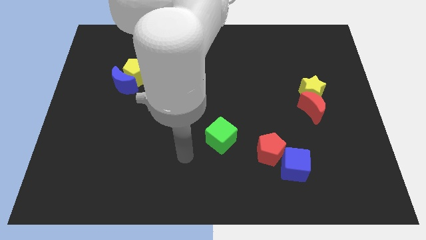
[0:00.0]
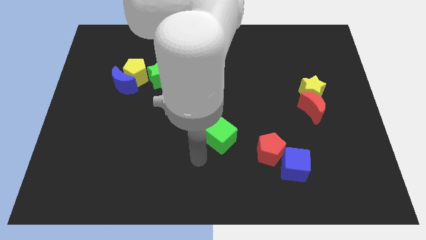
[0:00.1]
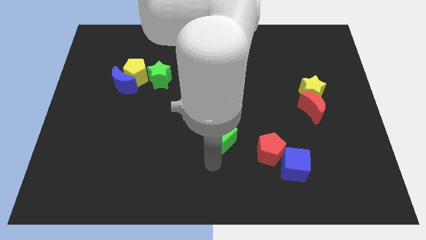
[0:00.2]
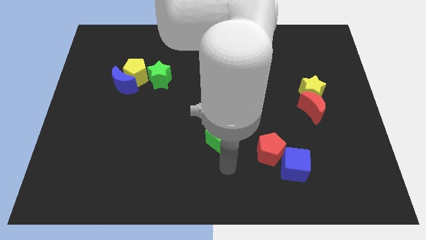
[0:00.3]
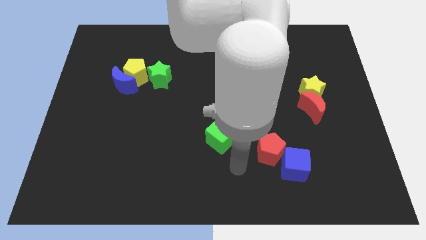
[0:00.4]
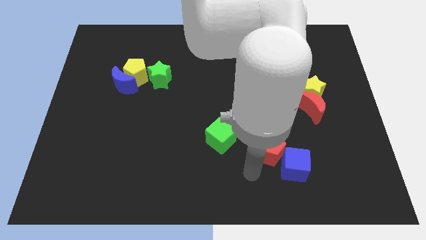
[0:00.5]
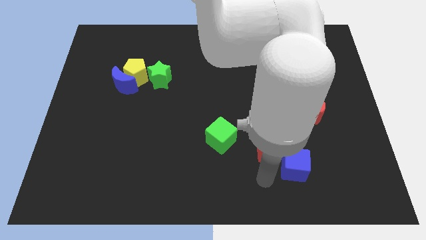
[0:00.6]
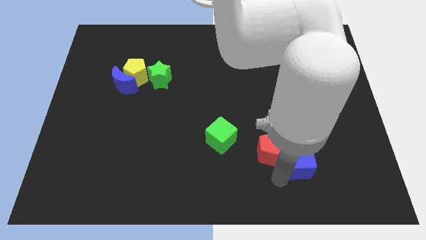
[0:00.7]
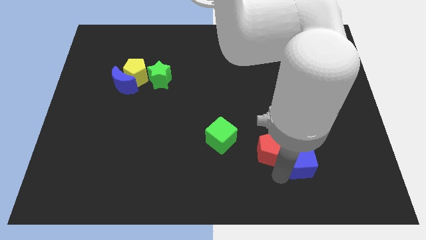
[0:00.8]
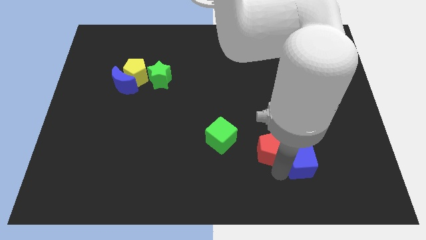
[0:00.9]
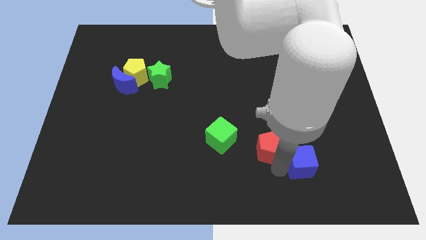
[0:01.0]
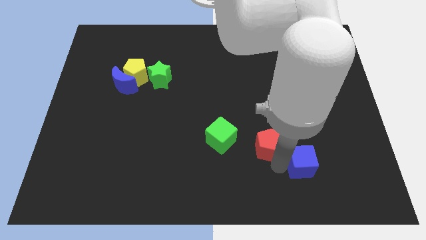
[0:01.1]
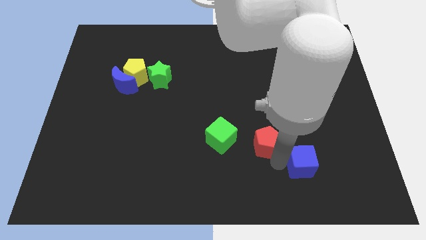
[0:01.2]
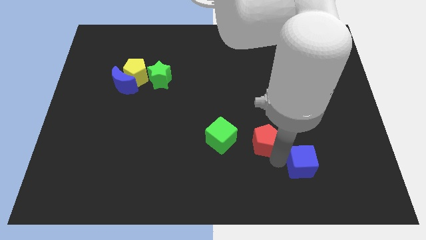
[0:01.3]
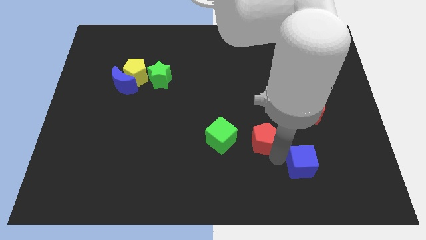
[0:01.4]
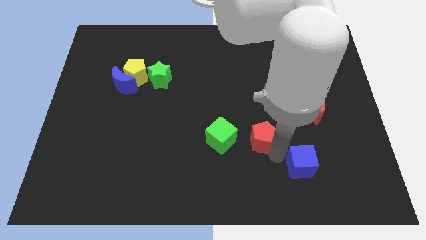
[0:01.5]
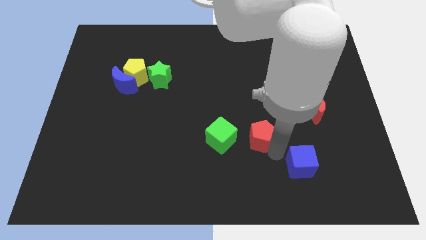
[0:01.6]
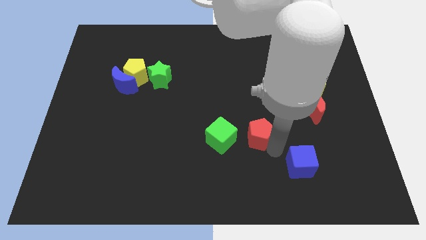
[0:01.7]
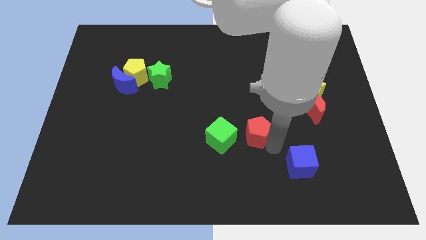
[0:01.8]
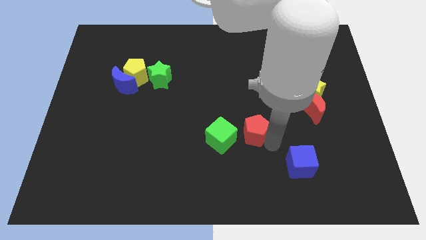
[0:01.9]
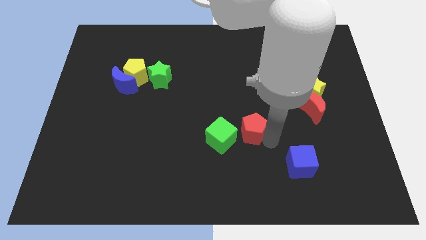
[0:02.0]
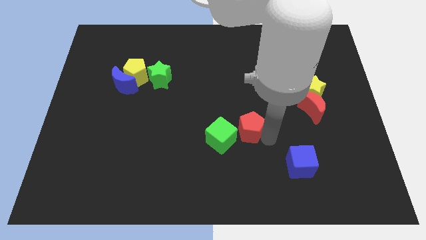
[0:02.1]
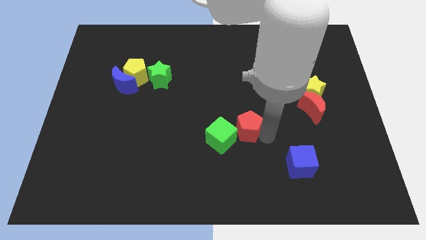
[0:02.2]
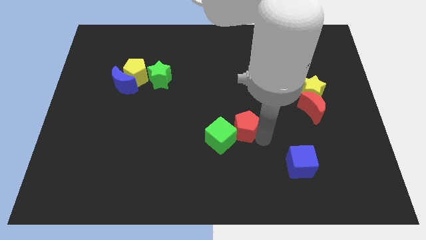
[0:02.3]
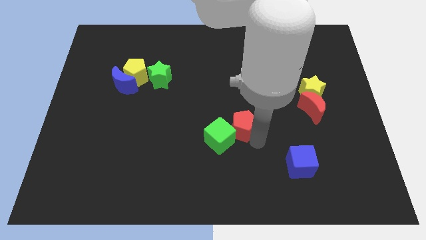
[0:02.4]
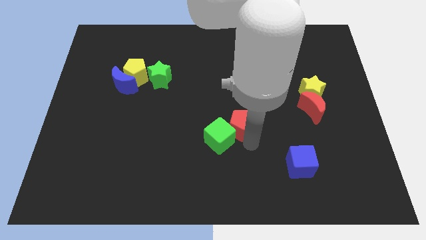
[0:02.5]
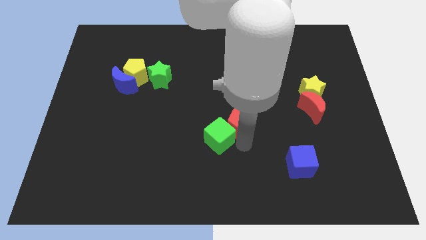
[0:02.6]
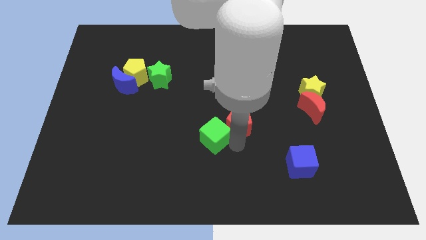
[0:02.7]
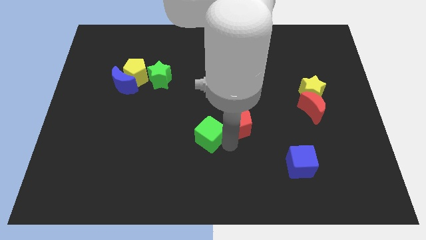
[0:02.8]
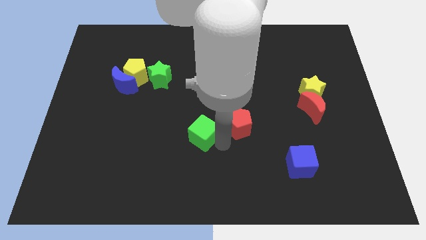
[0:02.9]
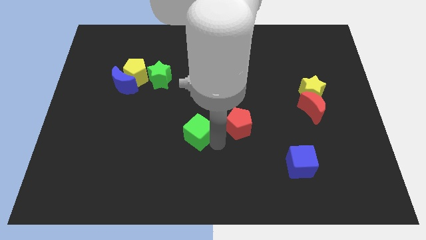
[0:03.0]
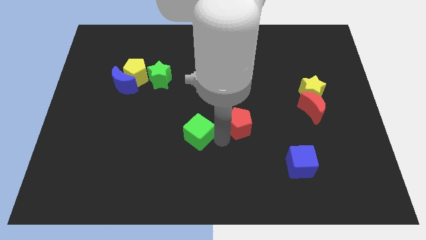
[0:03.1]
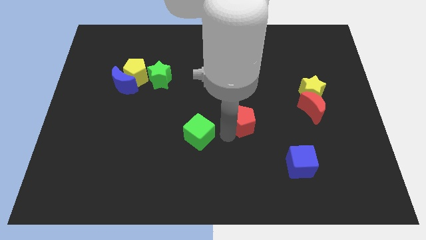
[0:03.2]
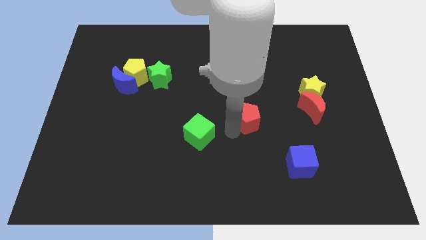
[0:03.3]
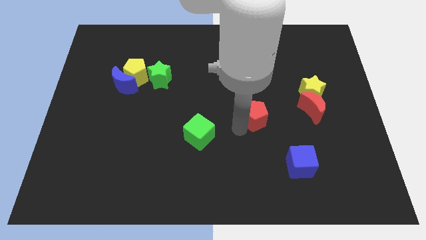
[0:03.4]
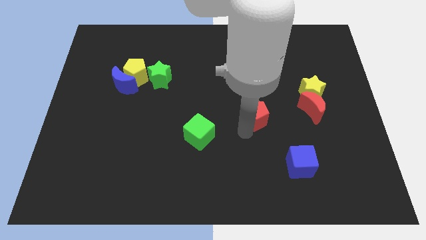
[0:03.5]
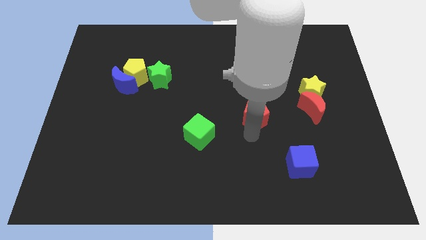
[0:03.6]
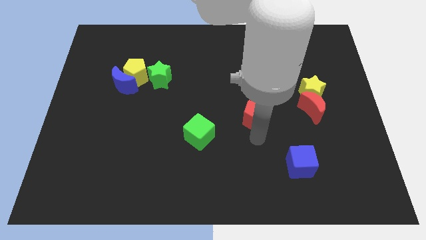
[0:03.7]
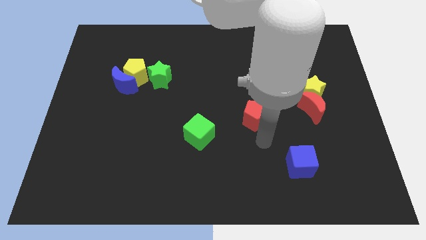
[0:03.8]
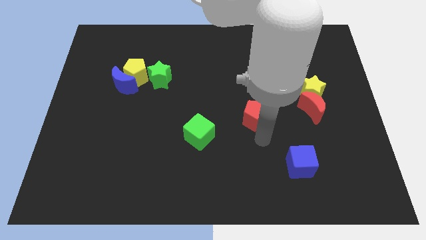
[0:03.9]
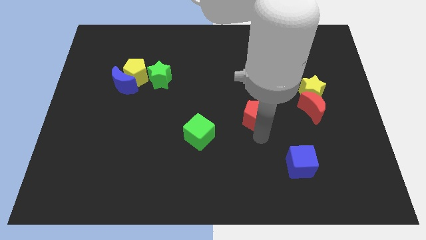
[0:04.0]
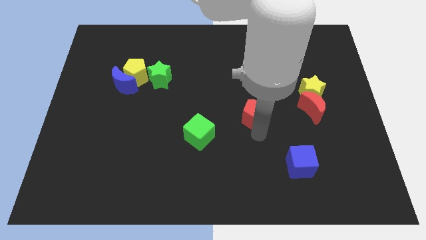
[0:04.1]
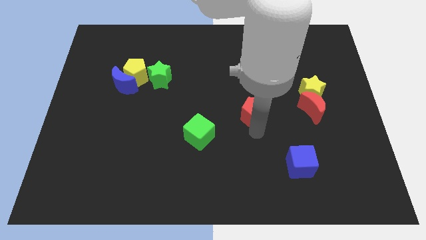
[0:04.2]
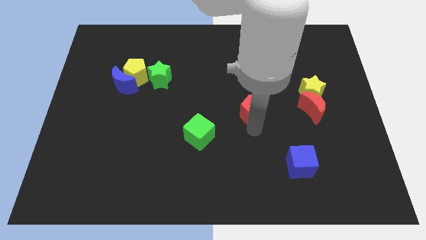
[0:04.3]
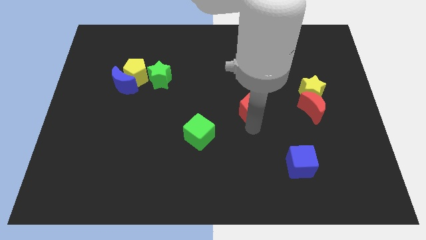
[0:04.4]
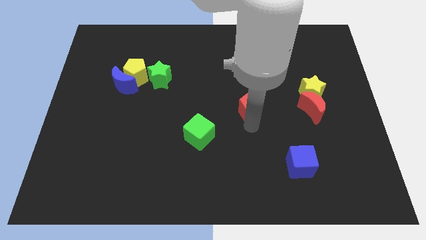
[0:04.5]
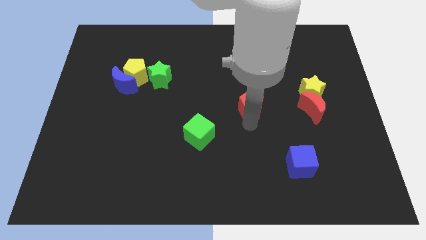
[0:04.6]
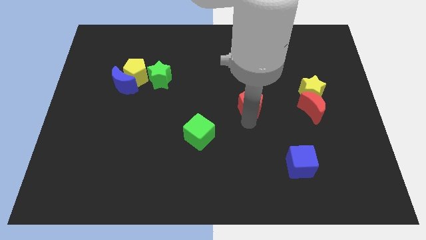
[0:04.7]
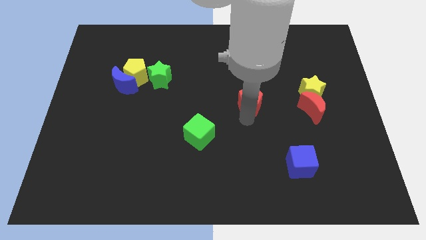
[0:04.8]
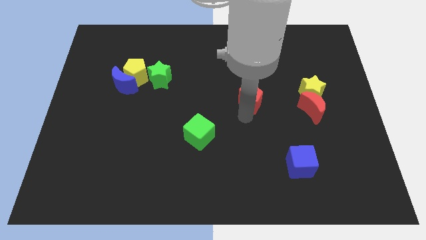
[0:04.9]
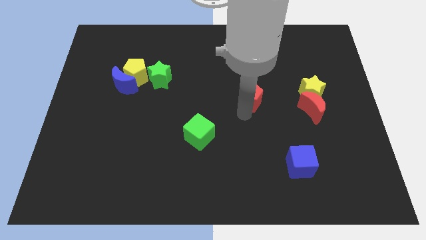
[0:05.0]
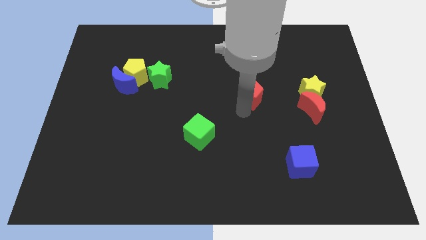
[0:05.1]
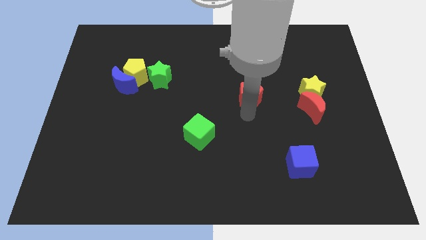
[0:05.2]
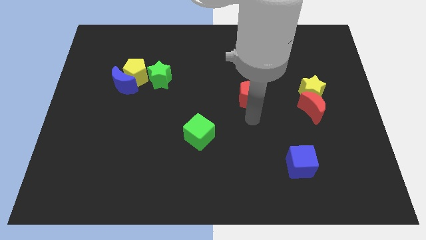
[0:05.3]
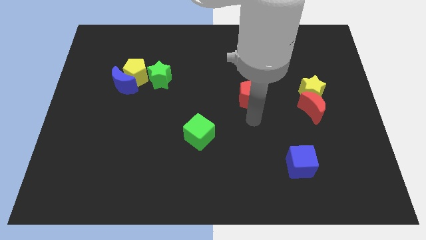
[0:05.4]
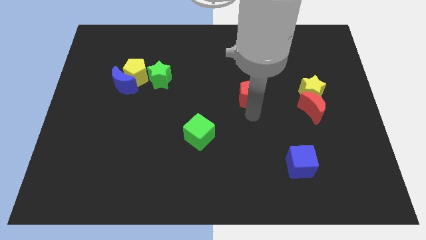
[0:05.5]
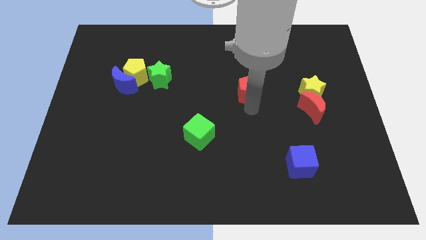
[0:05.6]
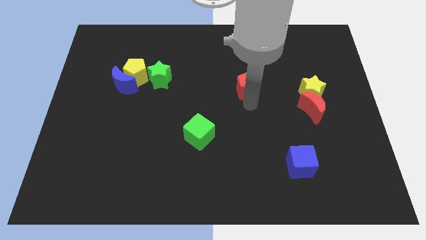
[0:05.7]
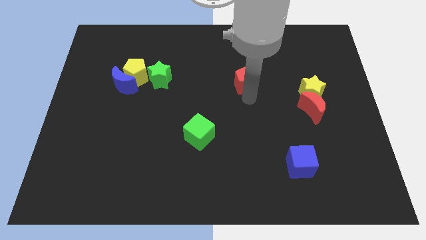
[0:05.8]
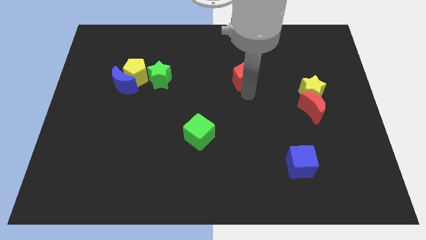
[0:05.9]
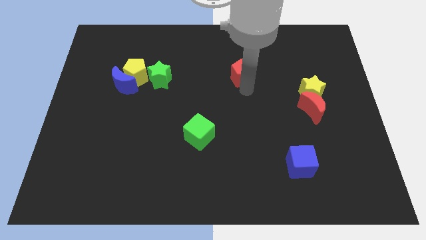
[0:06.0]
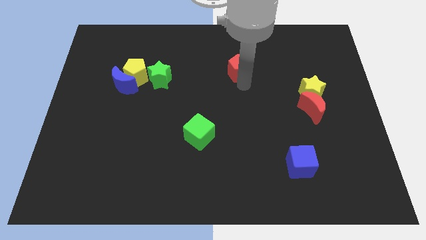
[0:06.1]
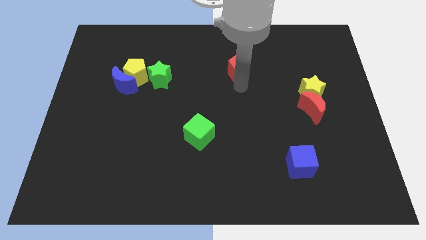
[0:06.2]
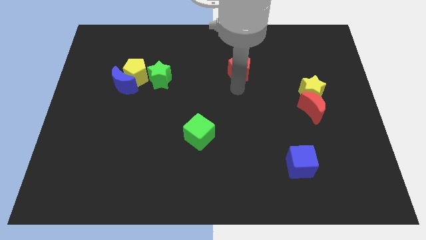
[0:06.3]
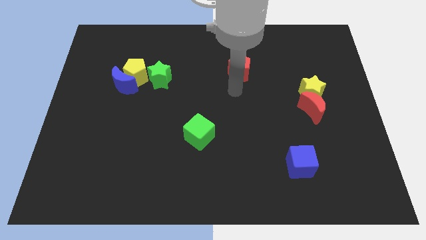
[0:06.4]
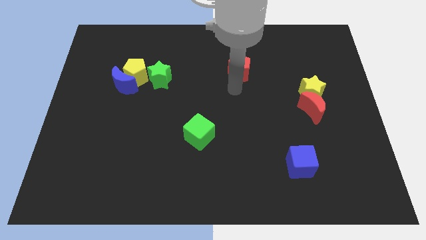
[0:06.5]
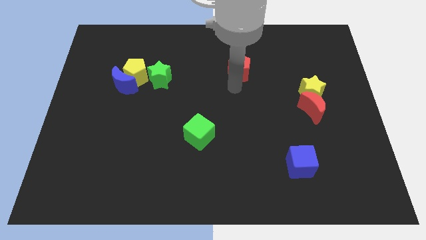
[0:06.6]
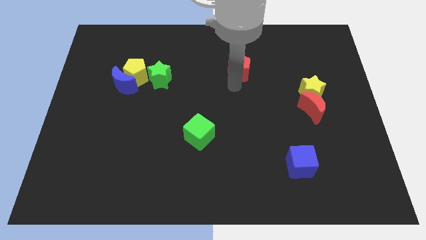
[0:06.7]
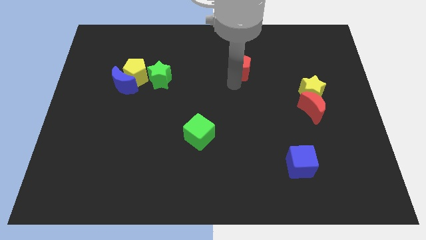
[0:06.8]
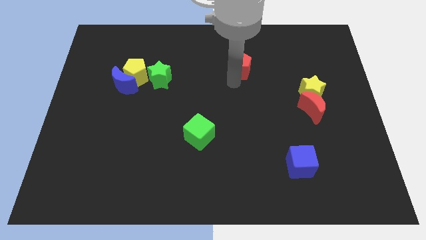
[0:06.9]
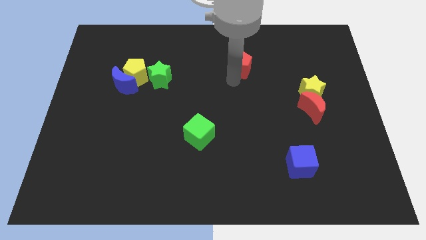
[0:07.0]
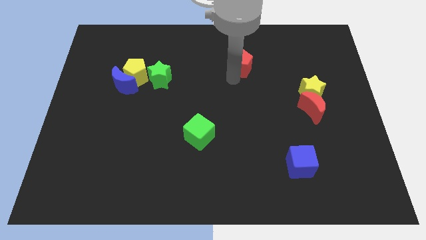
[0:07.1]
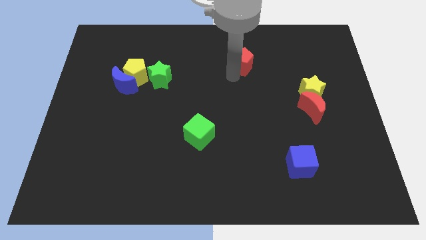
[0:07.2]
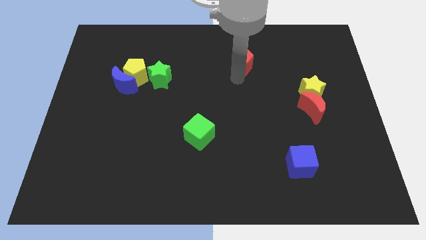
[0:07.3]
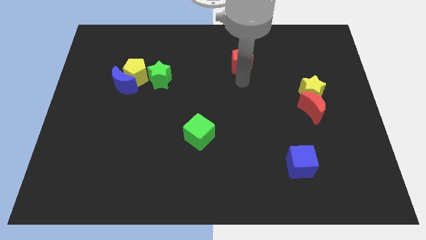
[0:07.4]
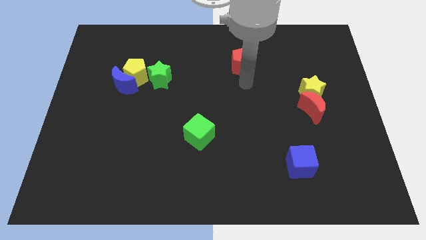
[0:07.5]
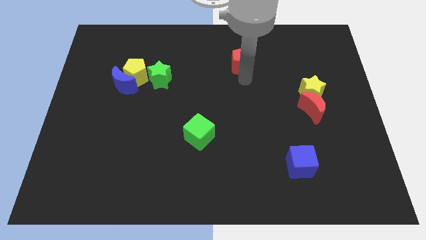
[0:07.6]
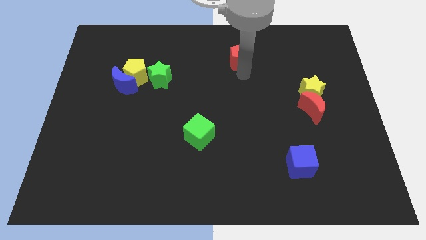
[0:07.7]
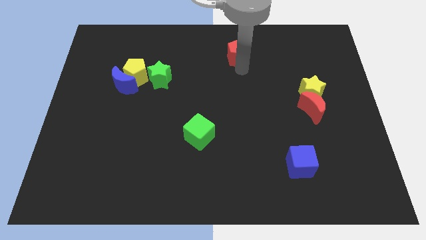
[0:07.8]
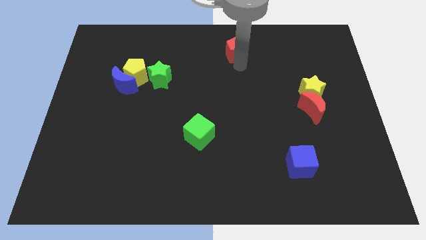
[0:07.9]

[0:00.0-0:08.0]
push the red pentagon to the top side
